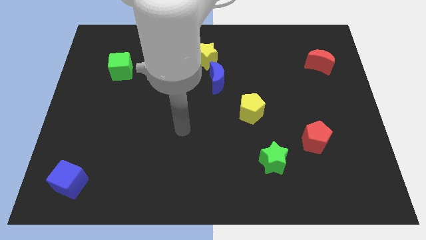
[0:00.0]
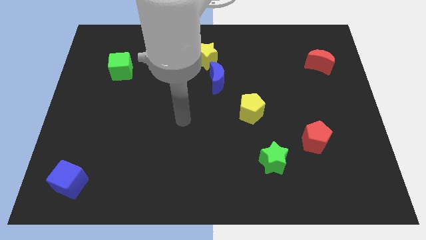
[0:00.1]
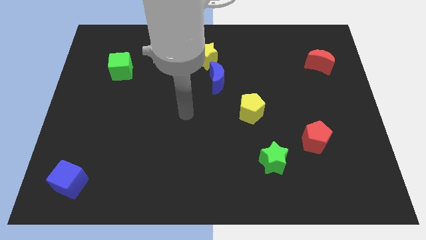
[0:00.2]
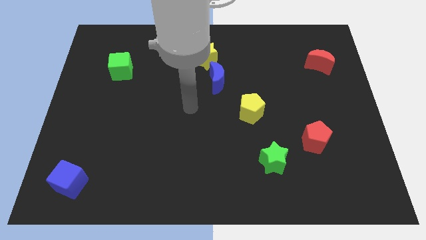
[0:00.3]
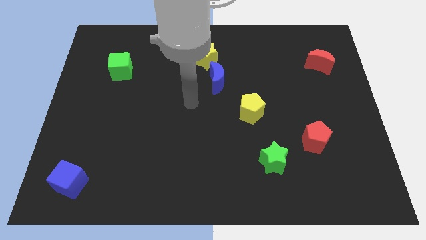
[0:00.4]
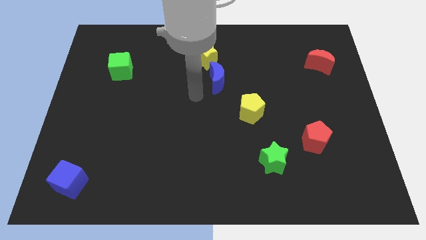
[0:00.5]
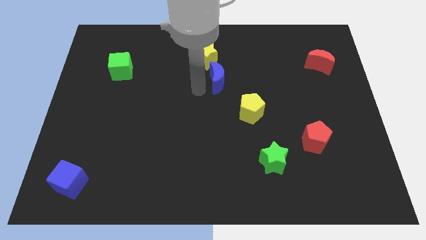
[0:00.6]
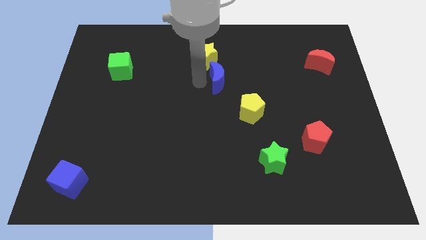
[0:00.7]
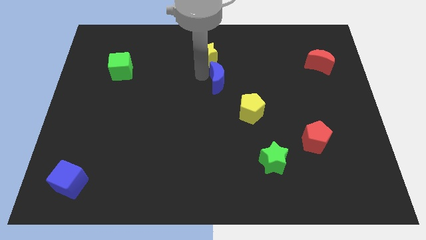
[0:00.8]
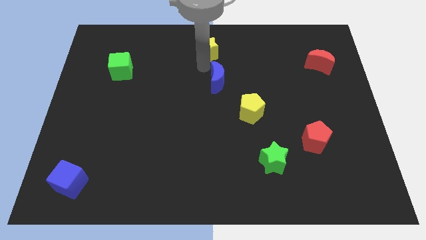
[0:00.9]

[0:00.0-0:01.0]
move the blue moon away from the yellow star

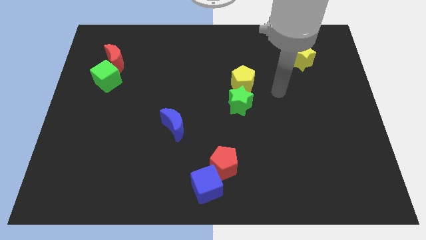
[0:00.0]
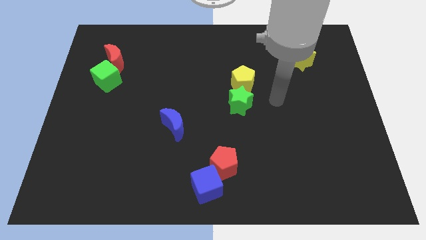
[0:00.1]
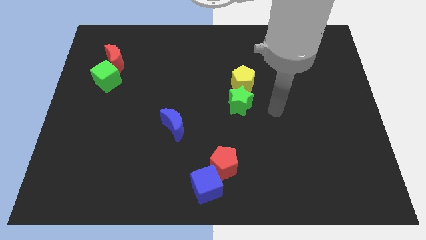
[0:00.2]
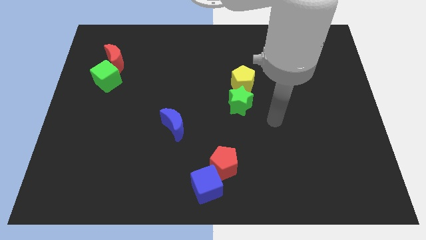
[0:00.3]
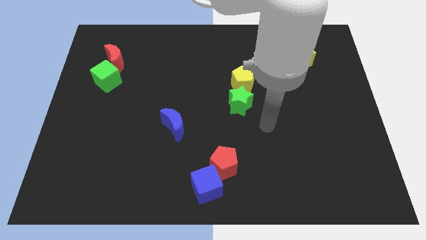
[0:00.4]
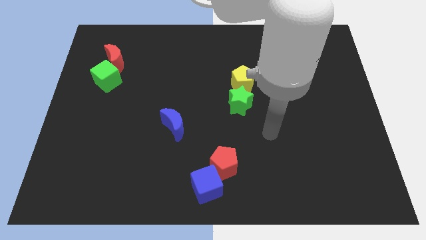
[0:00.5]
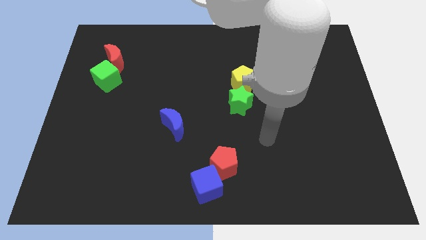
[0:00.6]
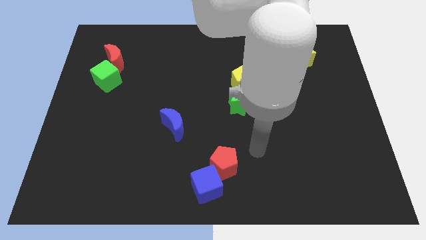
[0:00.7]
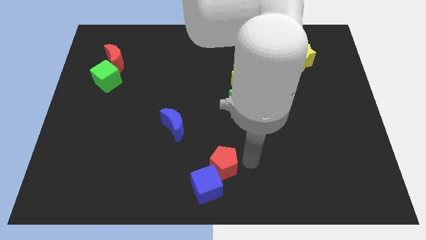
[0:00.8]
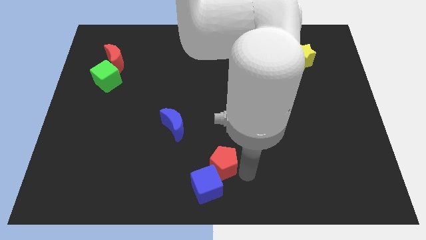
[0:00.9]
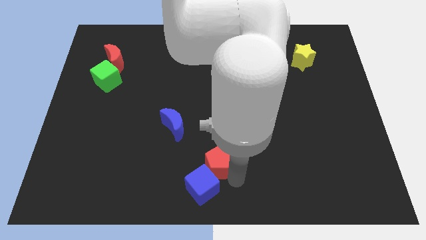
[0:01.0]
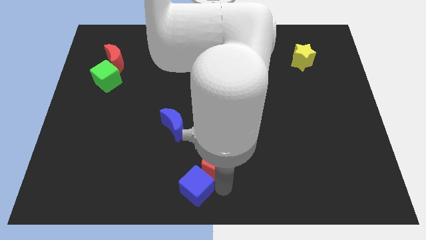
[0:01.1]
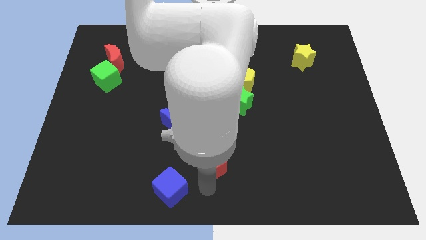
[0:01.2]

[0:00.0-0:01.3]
separate the red pentagon from the blue cube

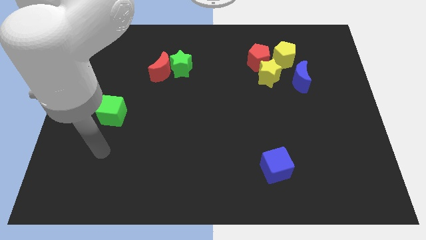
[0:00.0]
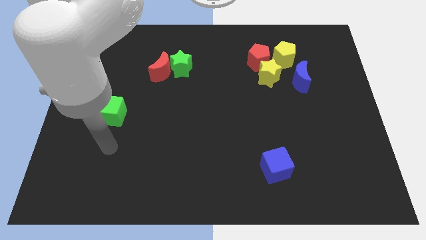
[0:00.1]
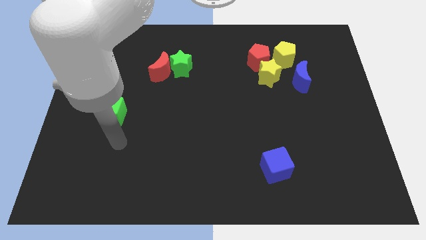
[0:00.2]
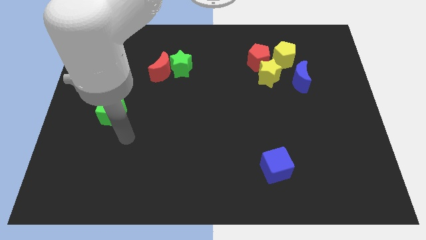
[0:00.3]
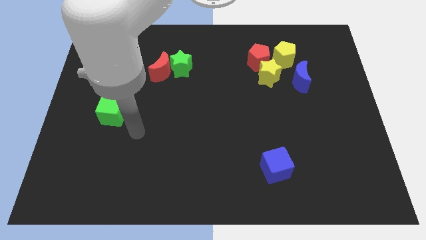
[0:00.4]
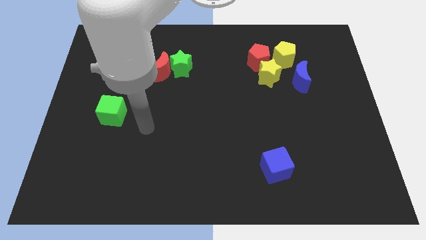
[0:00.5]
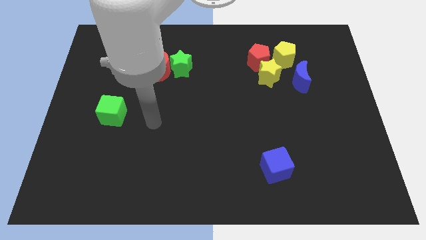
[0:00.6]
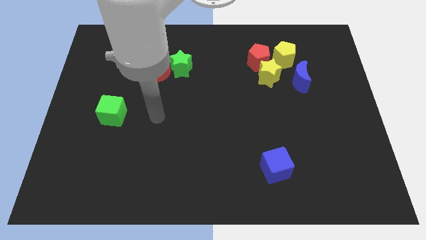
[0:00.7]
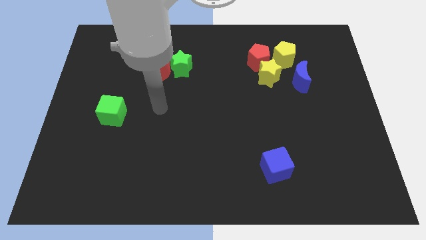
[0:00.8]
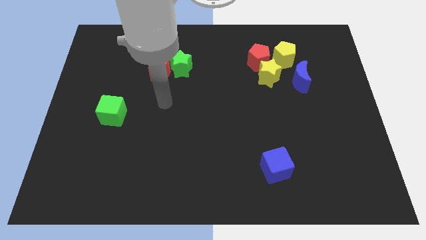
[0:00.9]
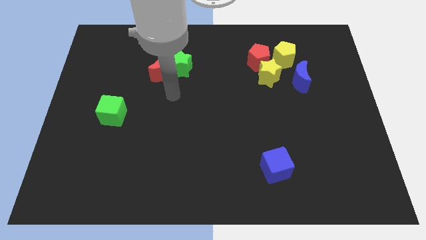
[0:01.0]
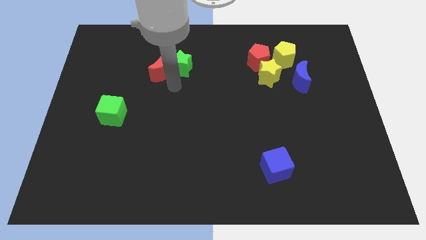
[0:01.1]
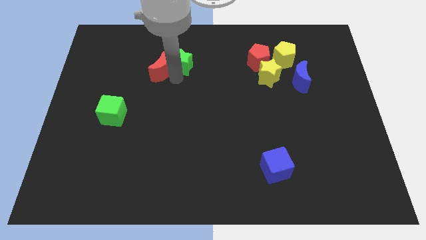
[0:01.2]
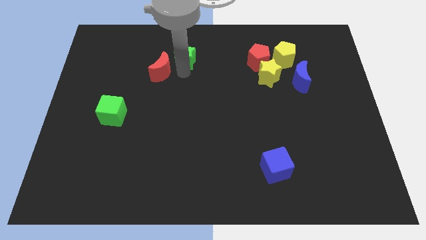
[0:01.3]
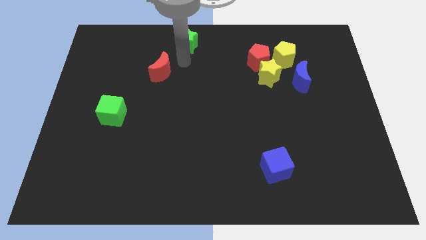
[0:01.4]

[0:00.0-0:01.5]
move the red moon away from the green star

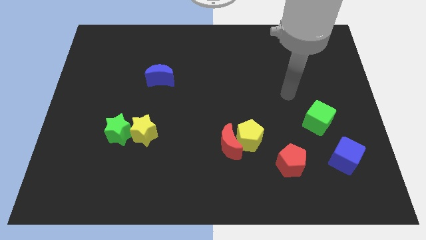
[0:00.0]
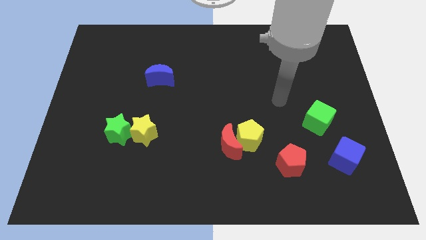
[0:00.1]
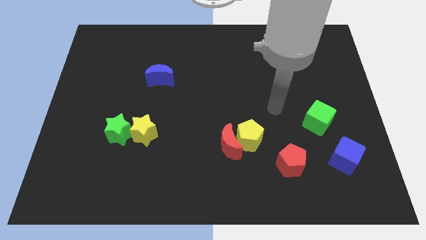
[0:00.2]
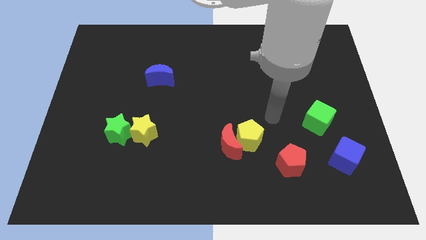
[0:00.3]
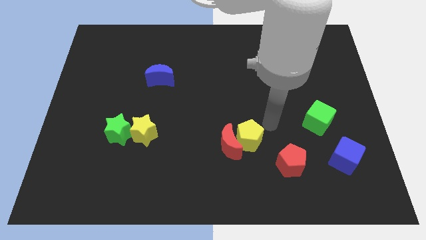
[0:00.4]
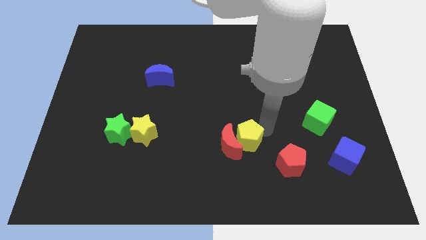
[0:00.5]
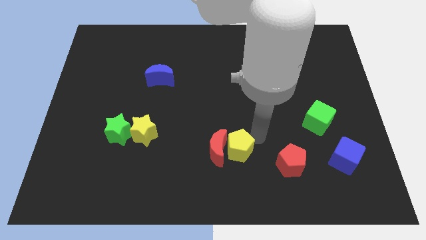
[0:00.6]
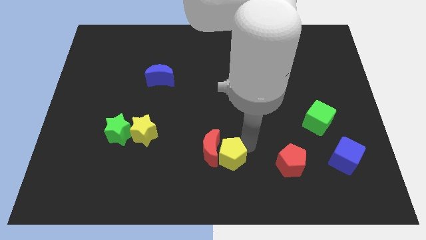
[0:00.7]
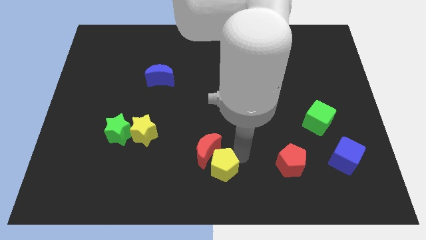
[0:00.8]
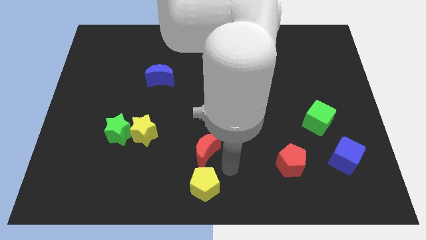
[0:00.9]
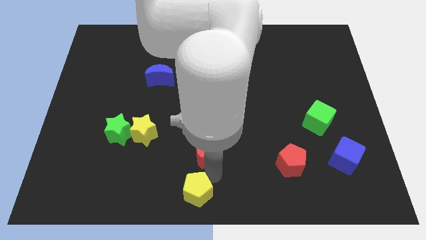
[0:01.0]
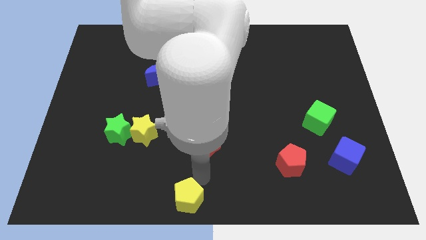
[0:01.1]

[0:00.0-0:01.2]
pull the red moon apart from the yellow pentagon

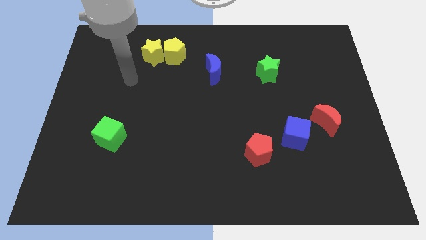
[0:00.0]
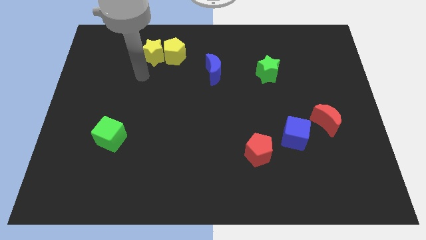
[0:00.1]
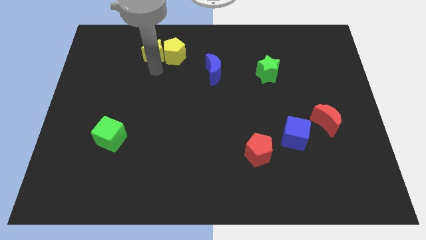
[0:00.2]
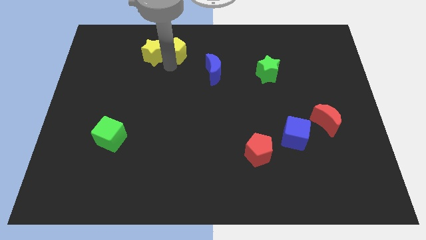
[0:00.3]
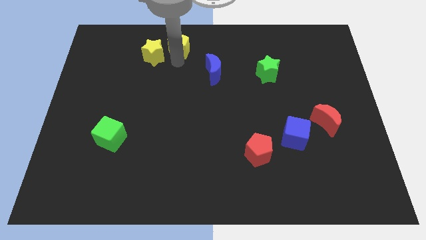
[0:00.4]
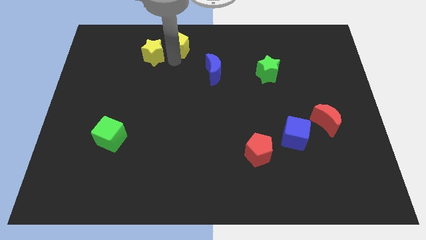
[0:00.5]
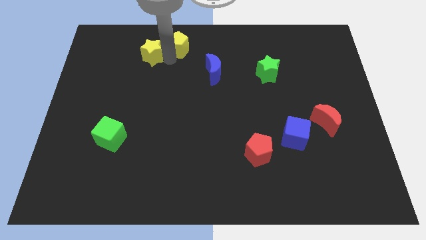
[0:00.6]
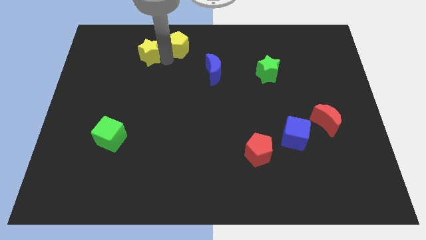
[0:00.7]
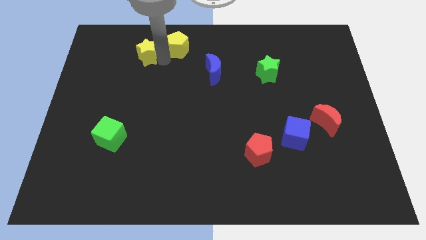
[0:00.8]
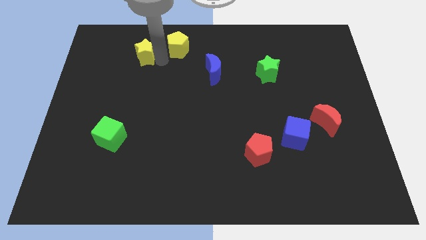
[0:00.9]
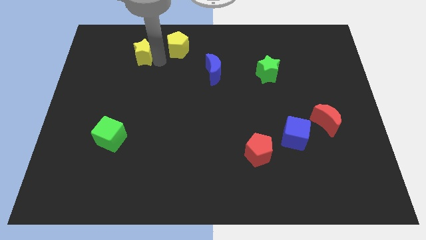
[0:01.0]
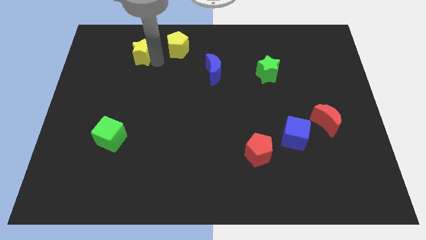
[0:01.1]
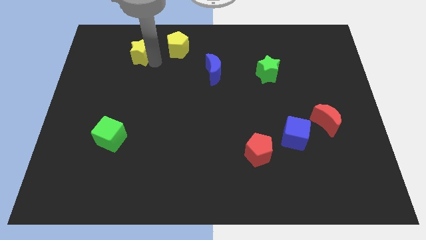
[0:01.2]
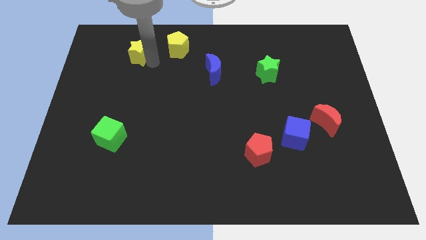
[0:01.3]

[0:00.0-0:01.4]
separate the yellow star from the yellow pentagon

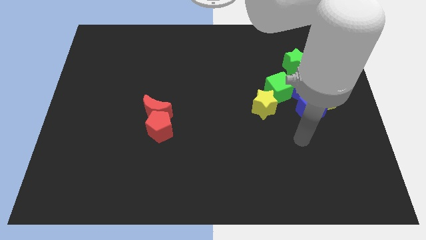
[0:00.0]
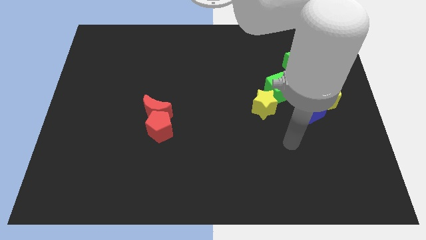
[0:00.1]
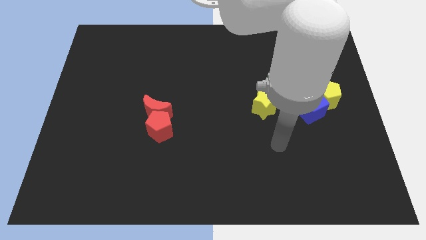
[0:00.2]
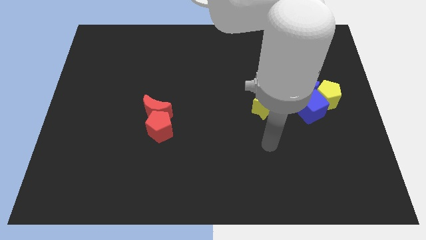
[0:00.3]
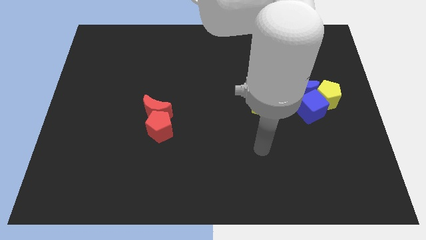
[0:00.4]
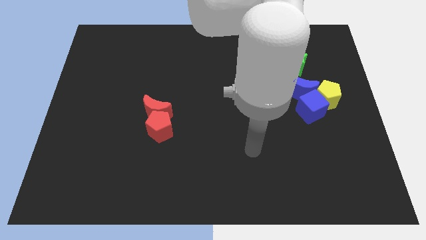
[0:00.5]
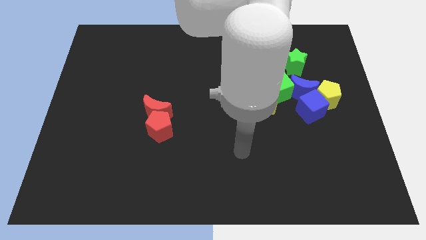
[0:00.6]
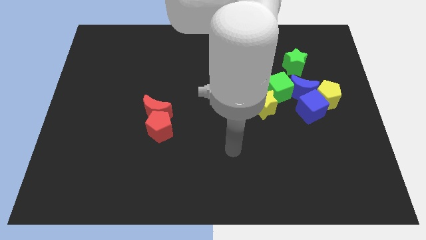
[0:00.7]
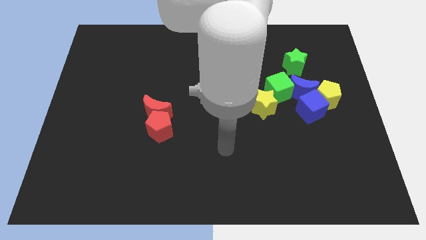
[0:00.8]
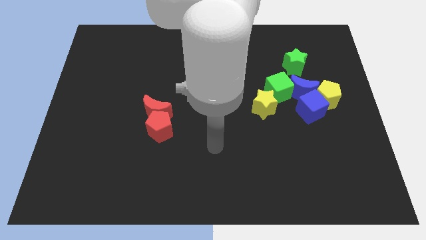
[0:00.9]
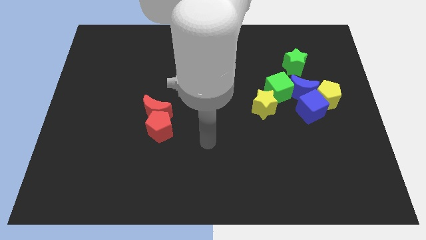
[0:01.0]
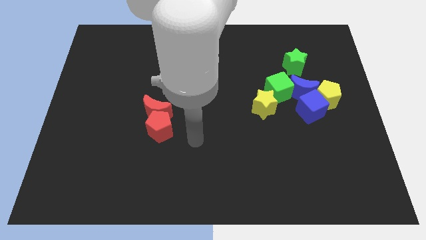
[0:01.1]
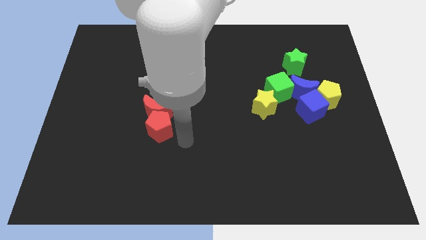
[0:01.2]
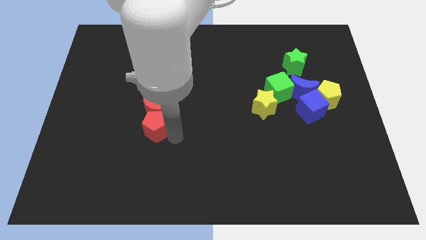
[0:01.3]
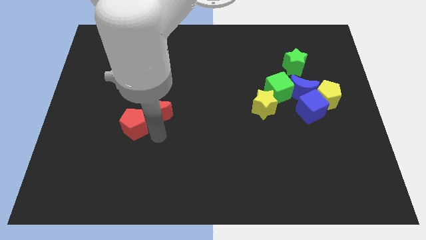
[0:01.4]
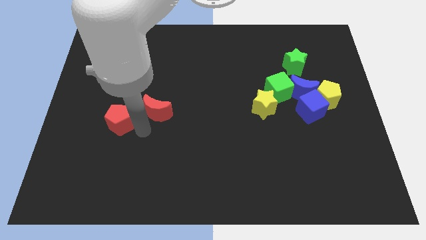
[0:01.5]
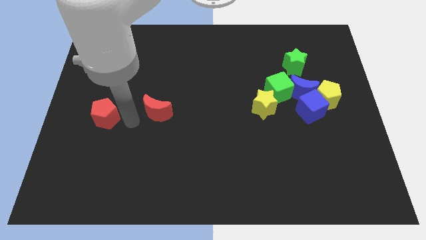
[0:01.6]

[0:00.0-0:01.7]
move the red moon away from the red pentagon

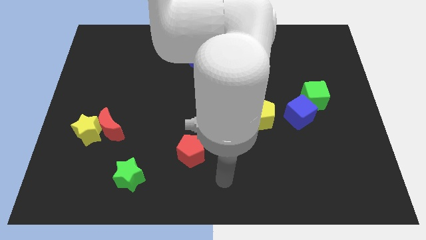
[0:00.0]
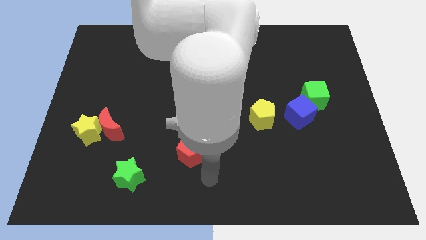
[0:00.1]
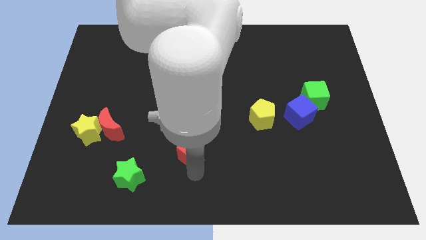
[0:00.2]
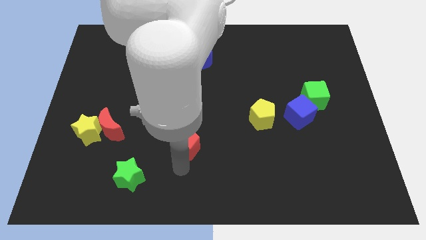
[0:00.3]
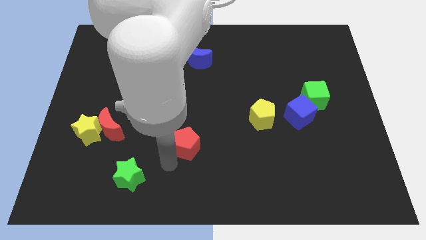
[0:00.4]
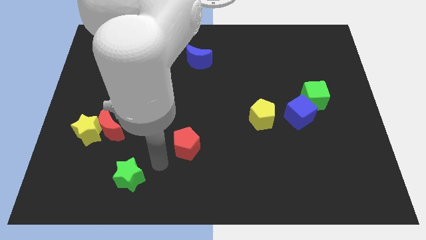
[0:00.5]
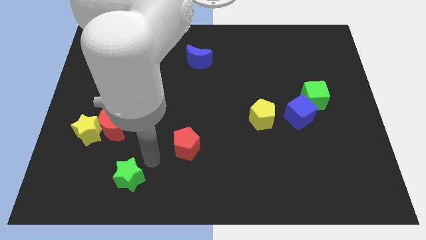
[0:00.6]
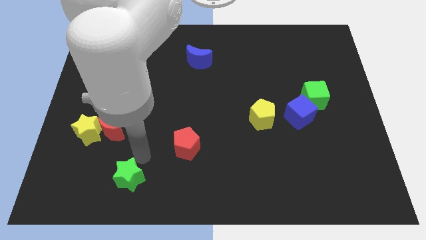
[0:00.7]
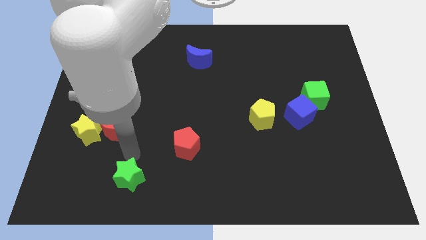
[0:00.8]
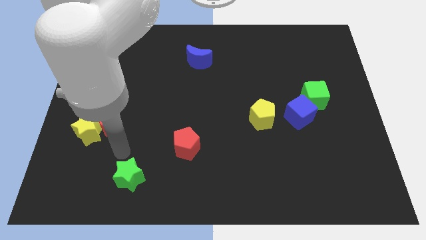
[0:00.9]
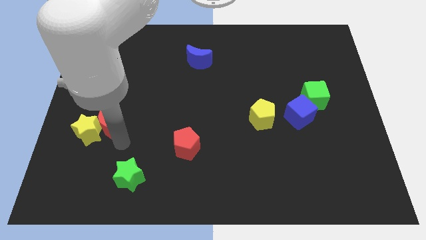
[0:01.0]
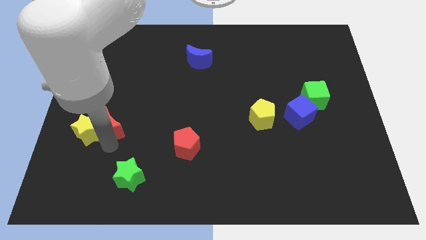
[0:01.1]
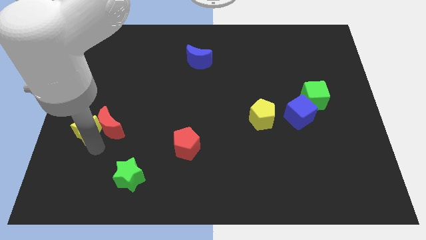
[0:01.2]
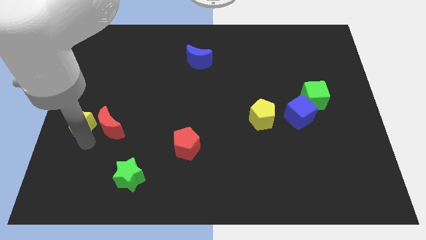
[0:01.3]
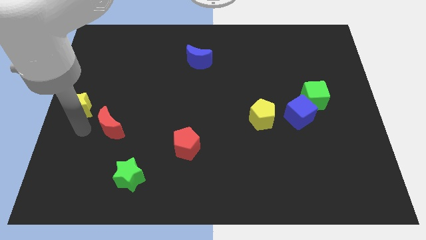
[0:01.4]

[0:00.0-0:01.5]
pull the red moon apart from the yellow star
